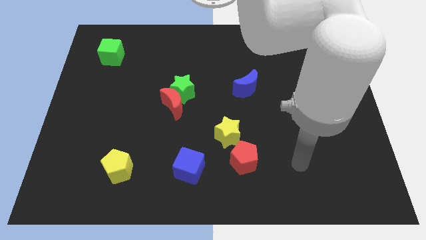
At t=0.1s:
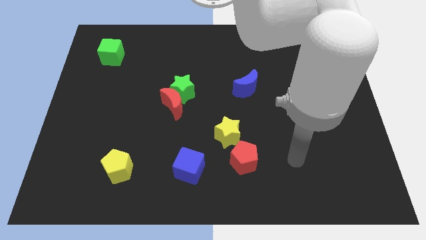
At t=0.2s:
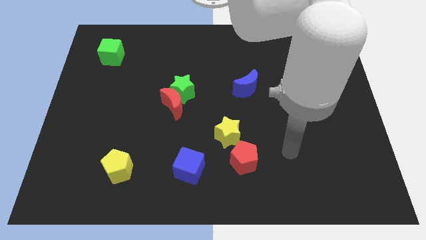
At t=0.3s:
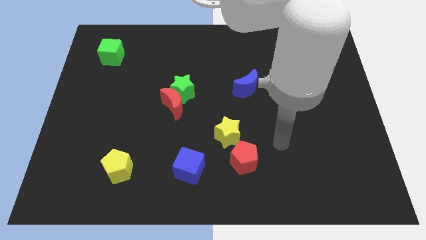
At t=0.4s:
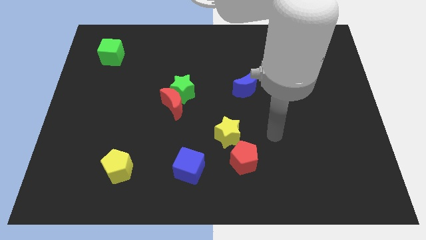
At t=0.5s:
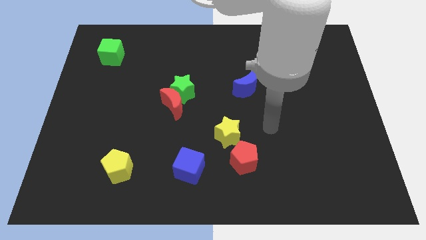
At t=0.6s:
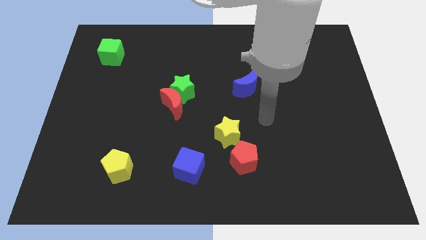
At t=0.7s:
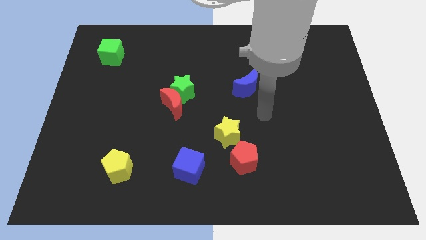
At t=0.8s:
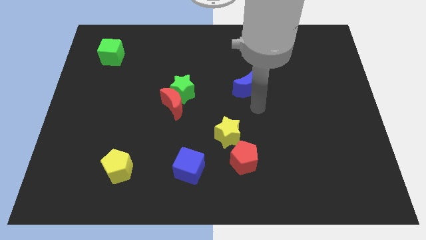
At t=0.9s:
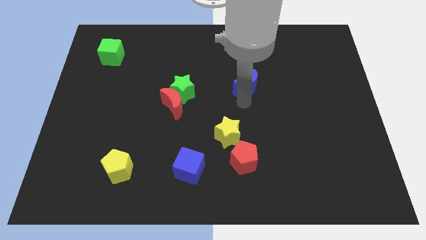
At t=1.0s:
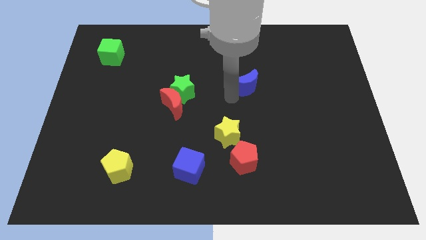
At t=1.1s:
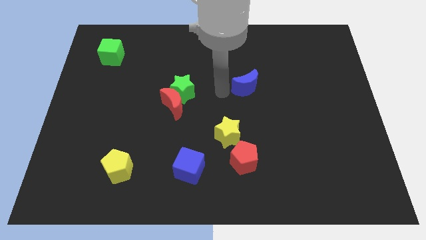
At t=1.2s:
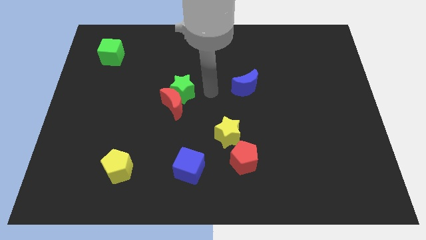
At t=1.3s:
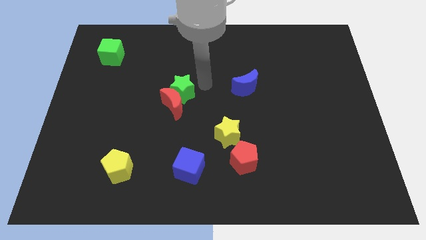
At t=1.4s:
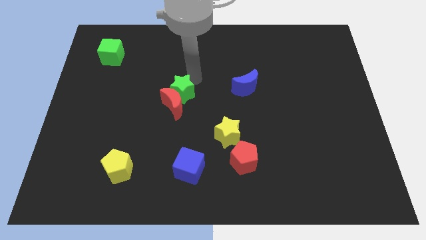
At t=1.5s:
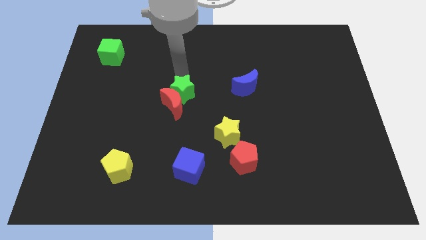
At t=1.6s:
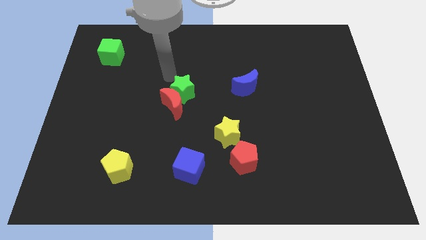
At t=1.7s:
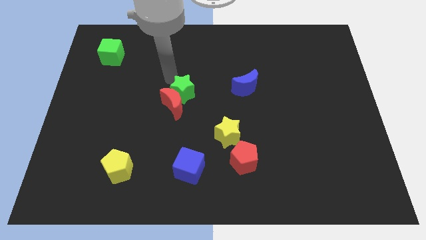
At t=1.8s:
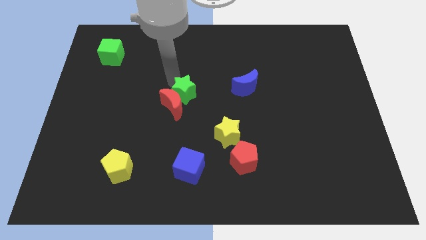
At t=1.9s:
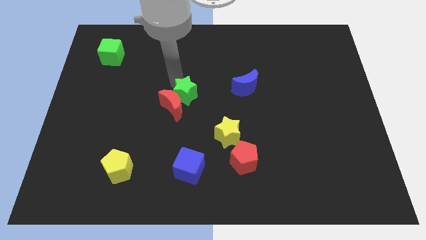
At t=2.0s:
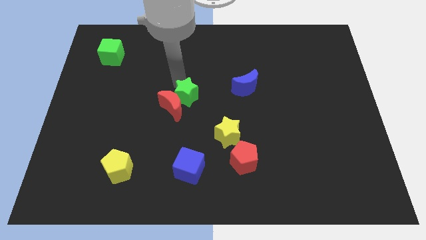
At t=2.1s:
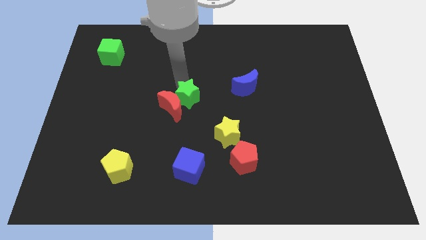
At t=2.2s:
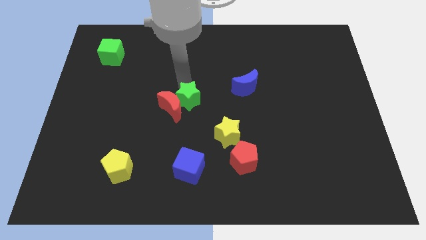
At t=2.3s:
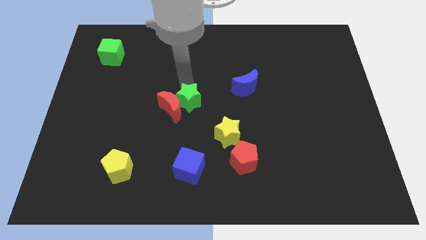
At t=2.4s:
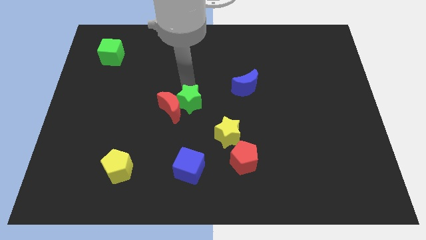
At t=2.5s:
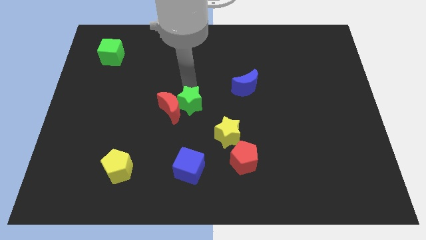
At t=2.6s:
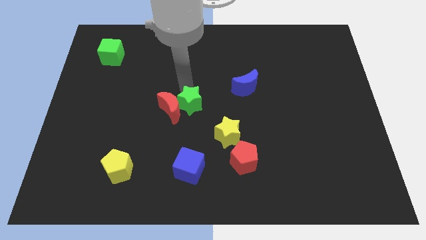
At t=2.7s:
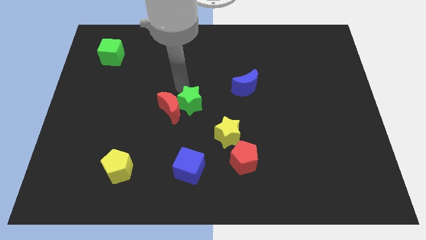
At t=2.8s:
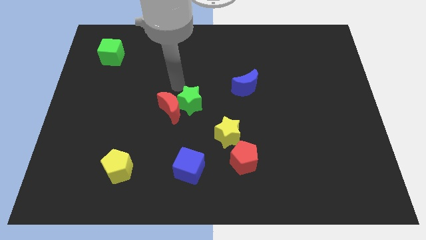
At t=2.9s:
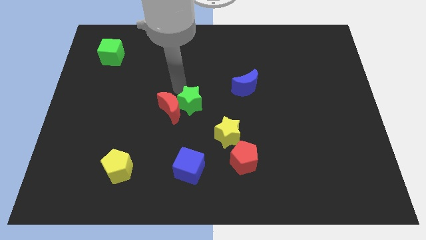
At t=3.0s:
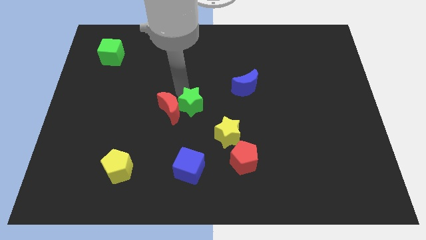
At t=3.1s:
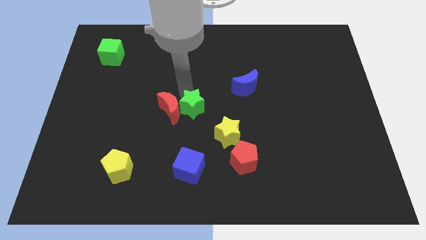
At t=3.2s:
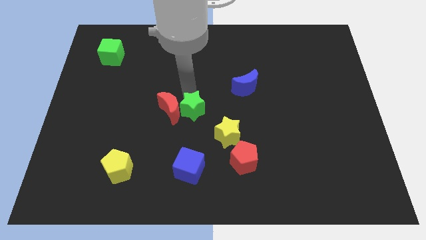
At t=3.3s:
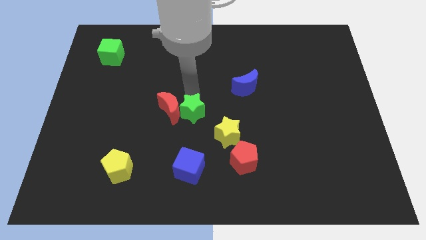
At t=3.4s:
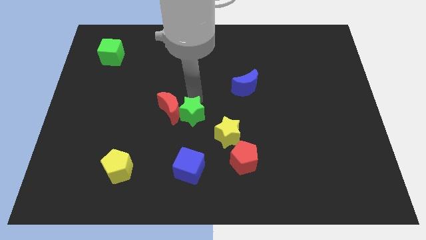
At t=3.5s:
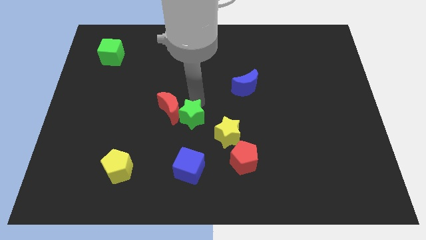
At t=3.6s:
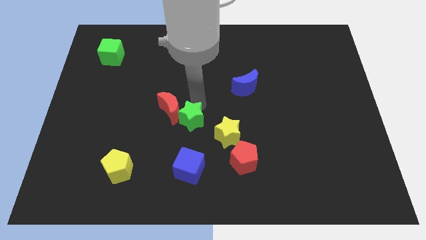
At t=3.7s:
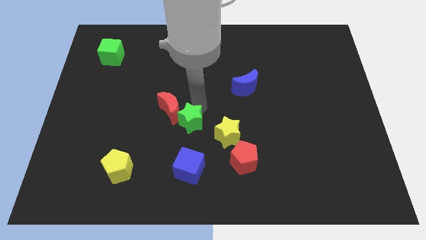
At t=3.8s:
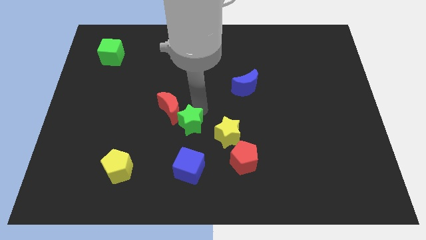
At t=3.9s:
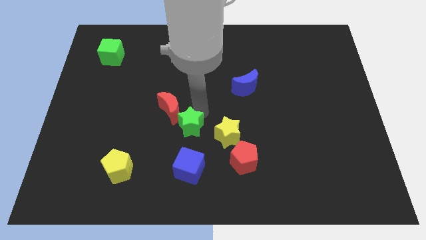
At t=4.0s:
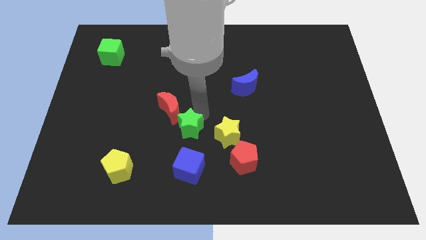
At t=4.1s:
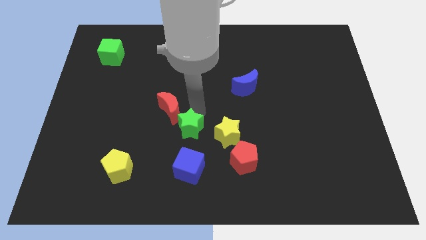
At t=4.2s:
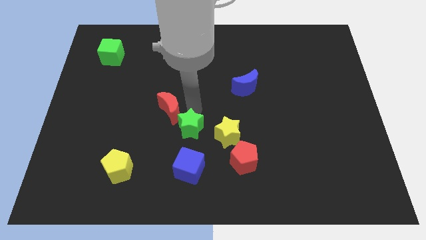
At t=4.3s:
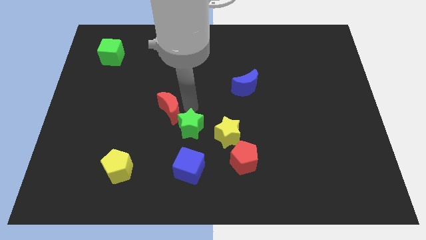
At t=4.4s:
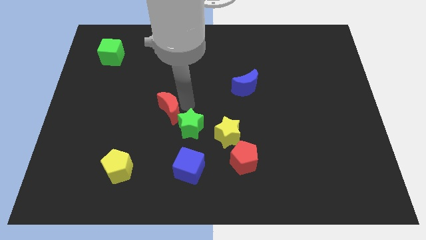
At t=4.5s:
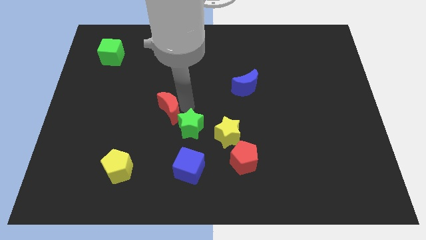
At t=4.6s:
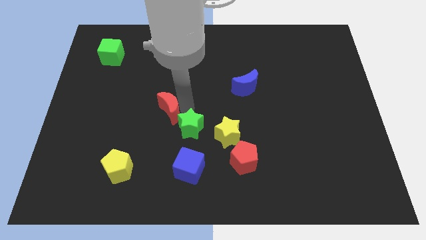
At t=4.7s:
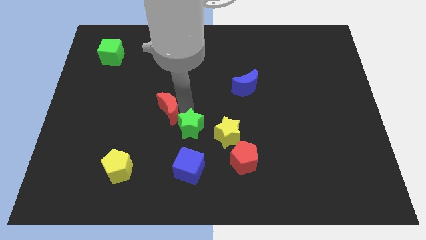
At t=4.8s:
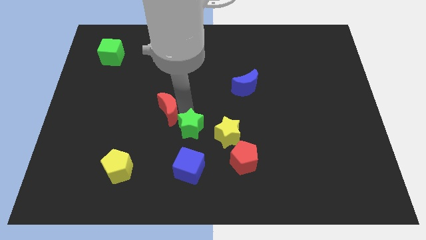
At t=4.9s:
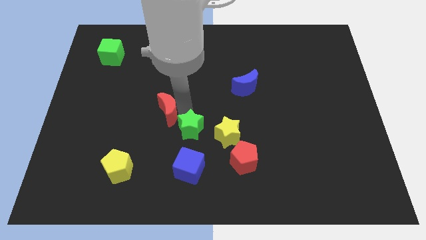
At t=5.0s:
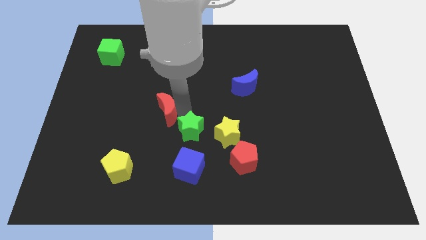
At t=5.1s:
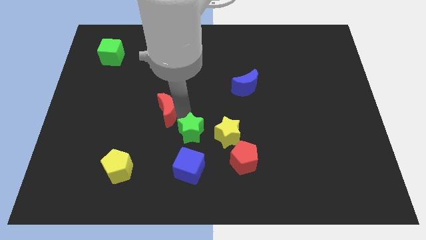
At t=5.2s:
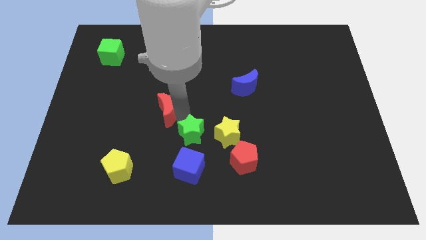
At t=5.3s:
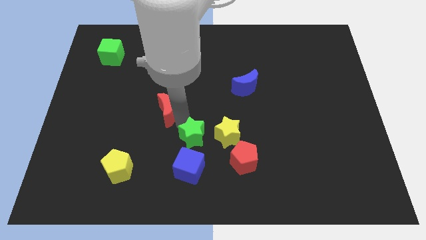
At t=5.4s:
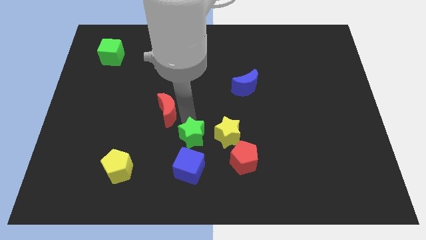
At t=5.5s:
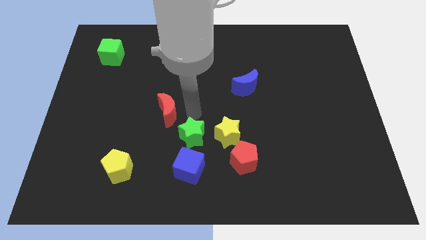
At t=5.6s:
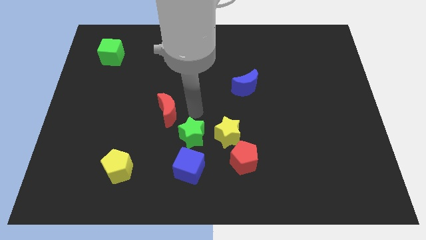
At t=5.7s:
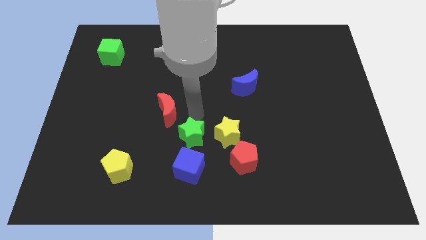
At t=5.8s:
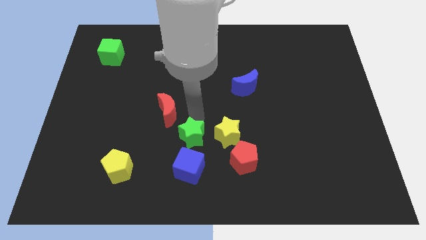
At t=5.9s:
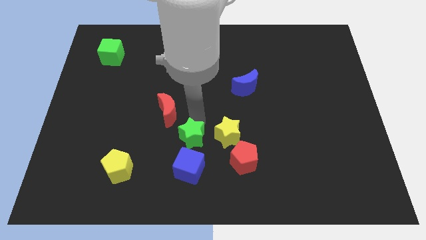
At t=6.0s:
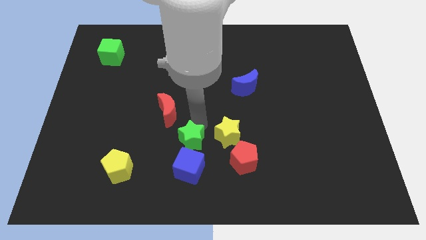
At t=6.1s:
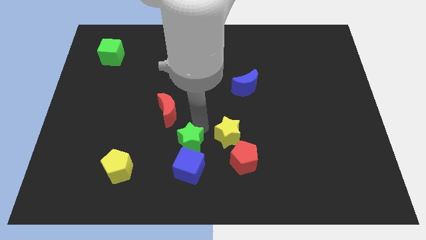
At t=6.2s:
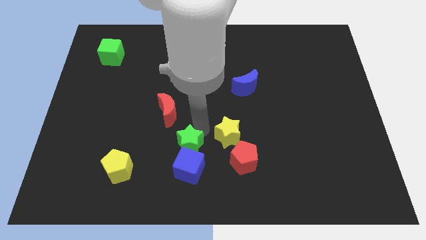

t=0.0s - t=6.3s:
slide the green star next to the blue cube
